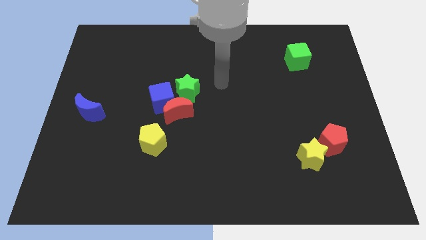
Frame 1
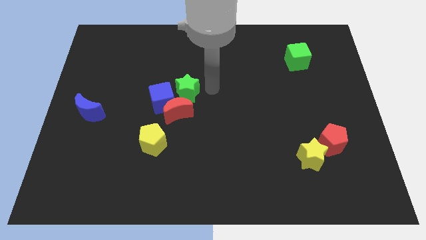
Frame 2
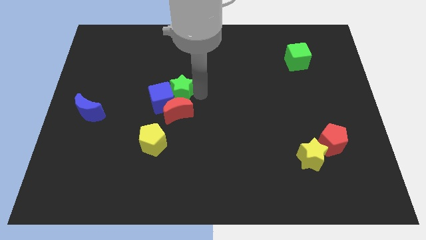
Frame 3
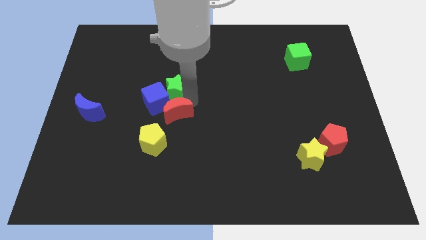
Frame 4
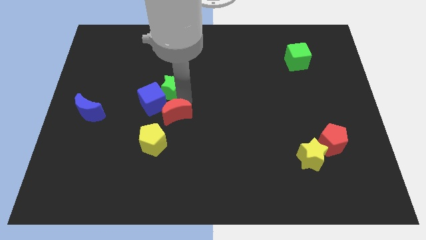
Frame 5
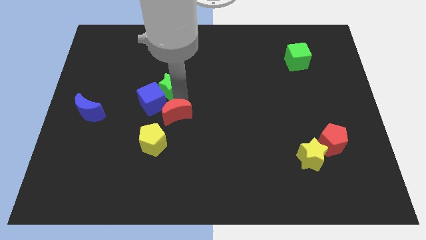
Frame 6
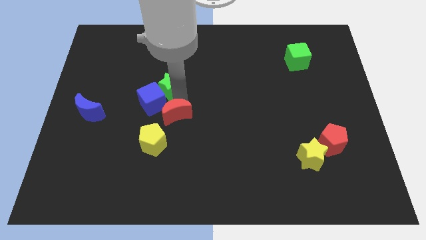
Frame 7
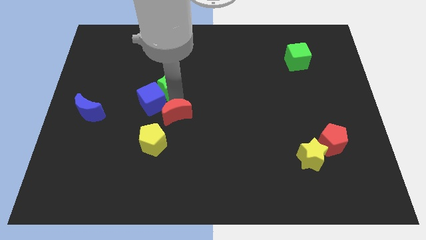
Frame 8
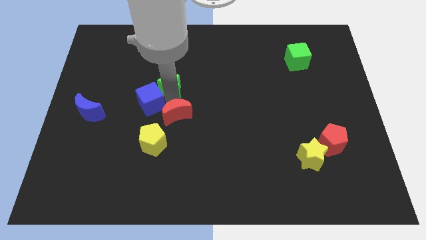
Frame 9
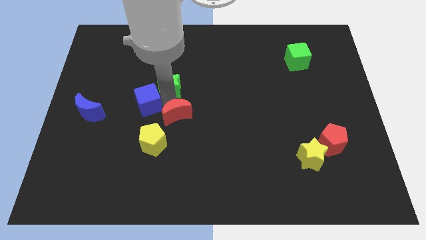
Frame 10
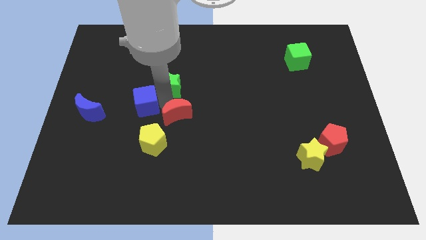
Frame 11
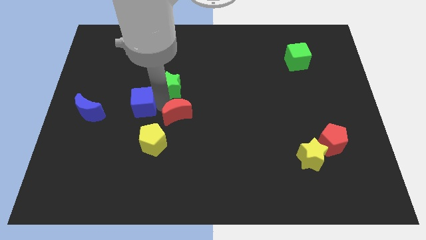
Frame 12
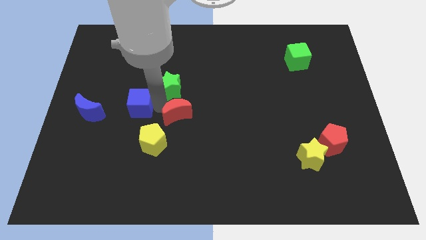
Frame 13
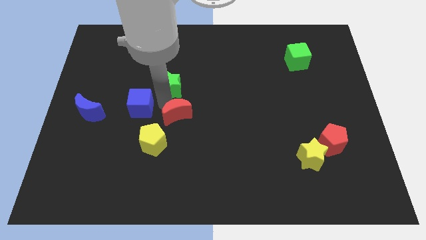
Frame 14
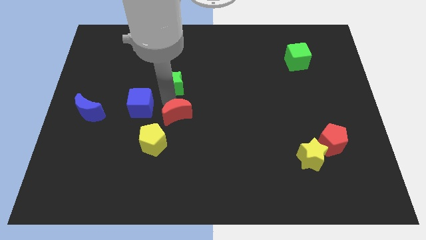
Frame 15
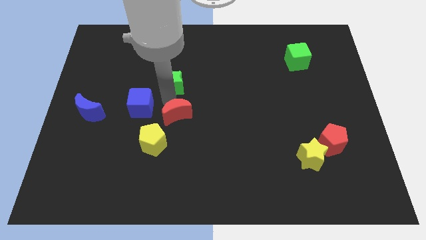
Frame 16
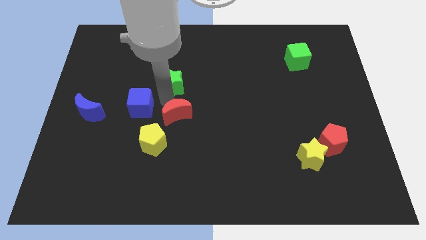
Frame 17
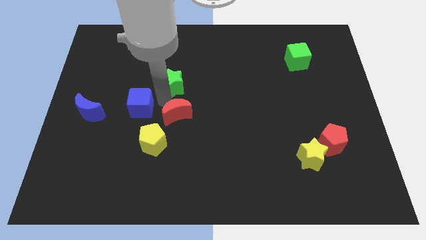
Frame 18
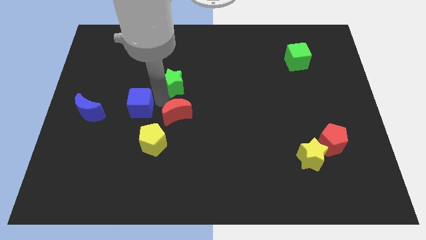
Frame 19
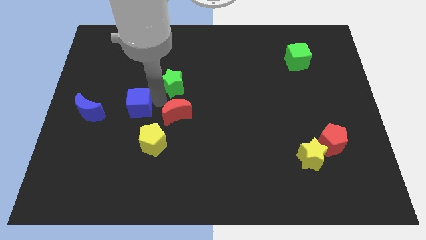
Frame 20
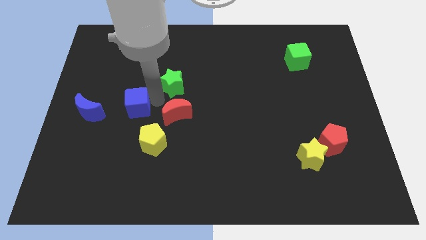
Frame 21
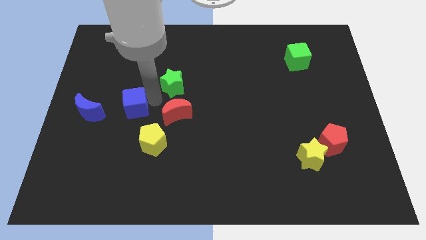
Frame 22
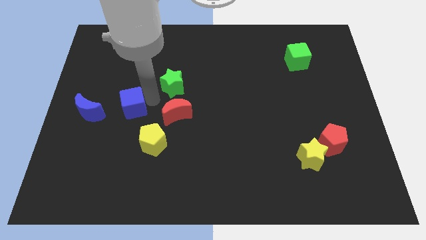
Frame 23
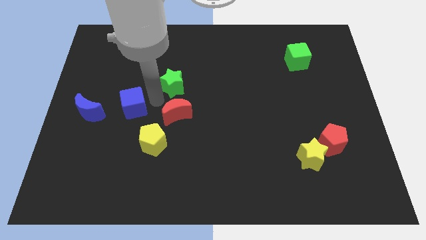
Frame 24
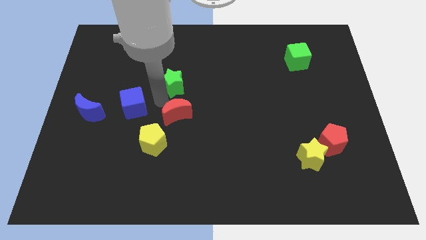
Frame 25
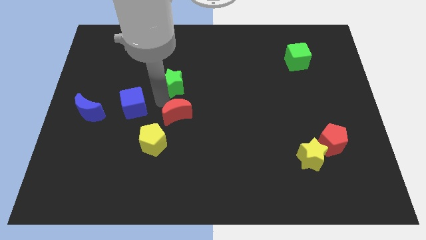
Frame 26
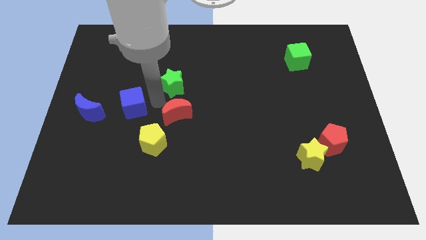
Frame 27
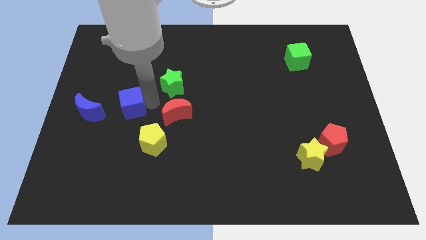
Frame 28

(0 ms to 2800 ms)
pull the blue cube apart from the red moon and green star

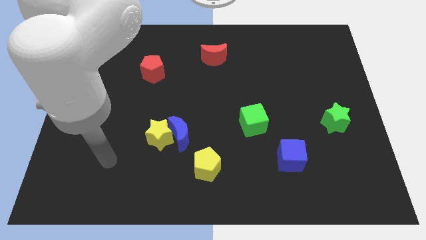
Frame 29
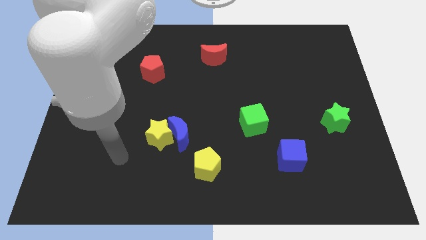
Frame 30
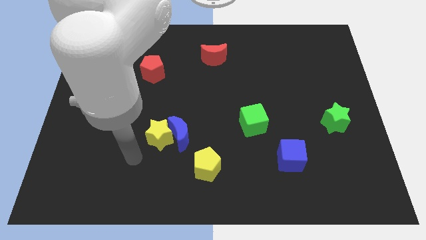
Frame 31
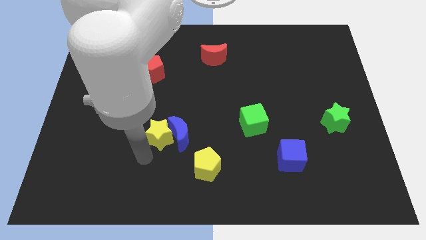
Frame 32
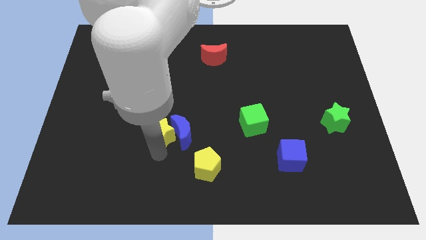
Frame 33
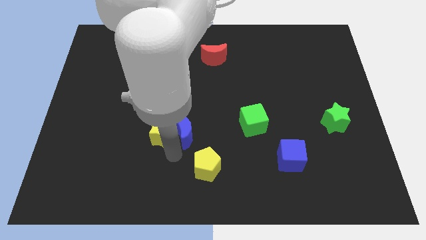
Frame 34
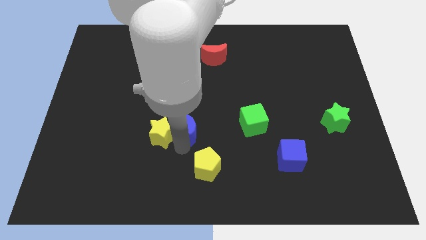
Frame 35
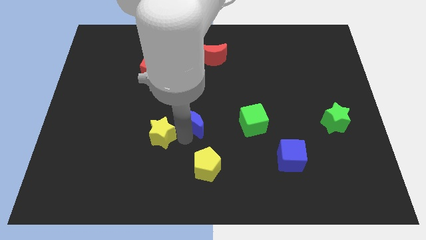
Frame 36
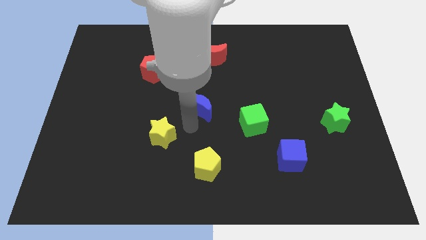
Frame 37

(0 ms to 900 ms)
move the yellow star away from the blue moon

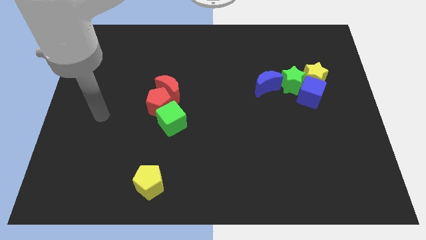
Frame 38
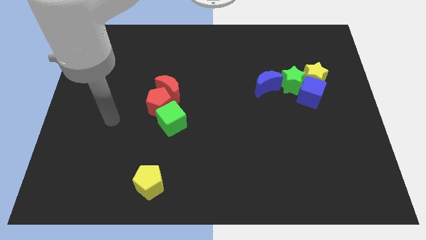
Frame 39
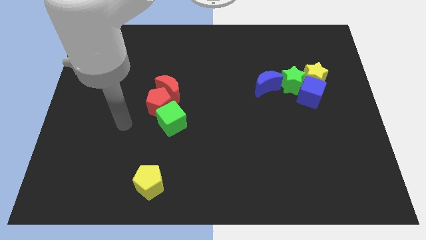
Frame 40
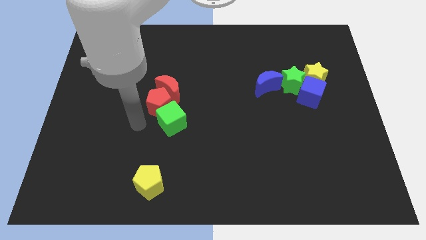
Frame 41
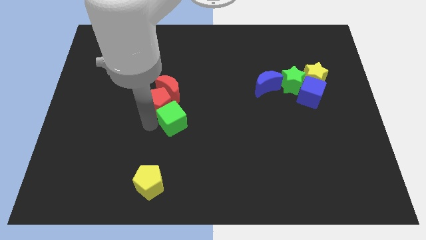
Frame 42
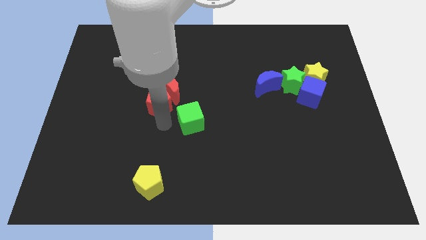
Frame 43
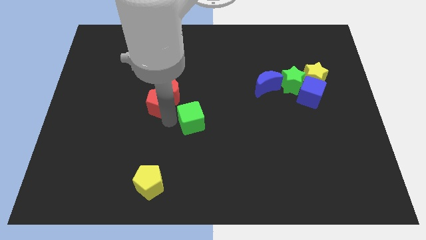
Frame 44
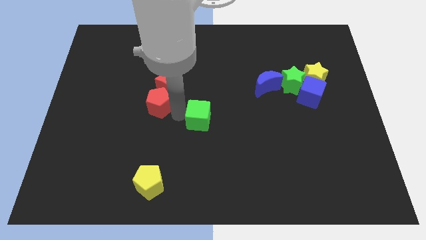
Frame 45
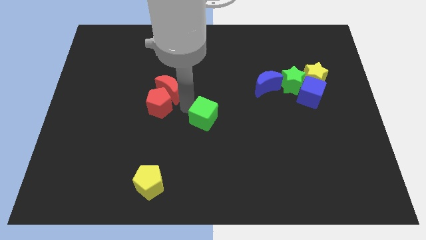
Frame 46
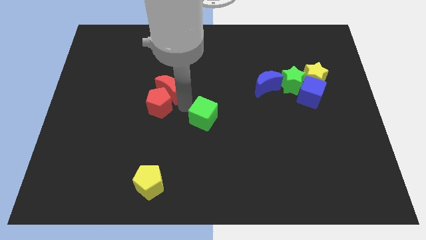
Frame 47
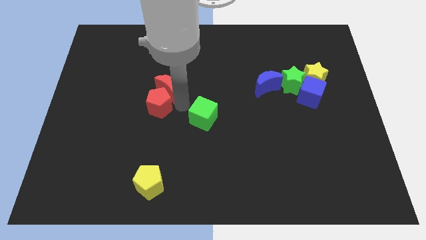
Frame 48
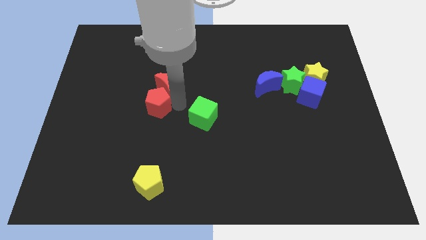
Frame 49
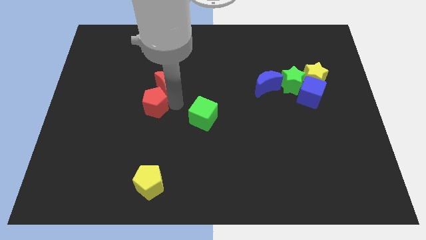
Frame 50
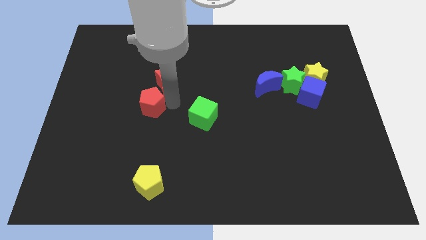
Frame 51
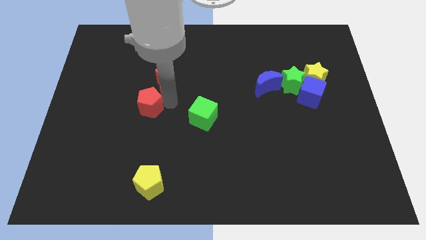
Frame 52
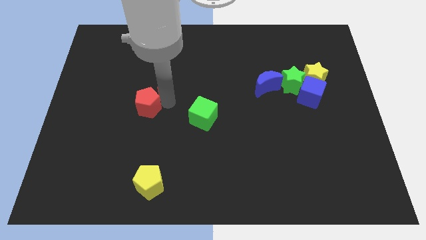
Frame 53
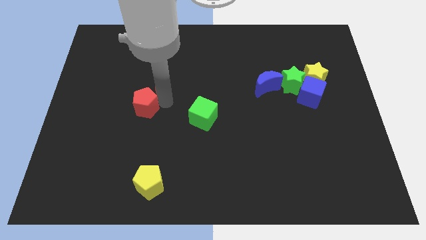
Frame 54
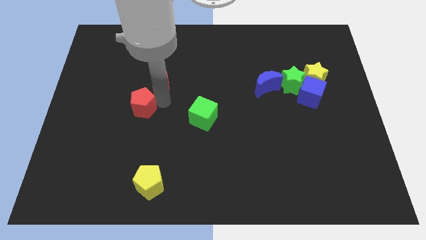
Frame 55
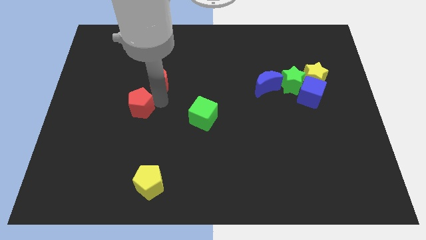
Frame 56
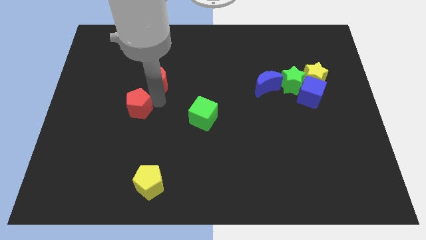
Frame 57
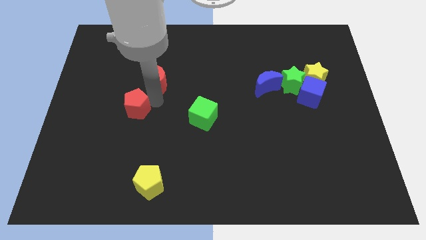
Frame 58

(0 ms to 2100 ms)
pull the red pentagon apart from the red moon and green cube

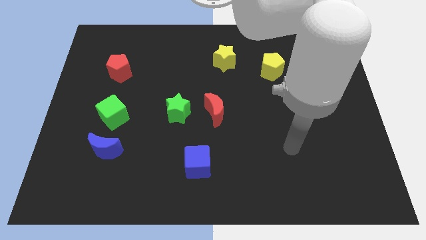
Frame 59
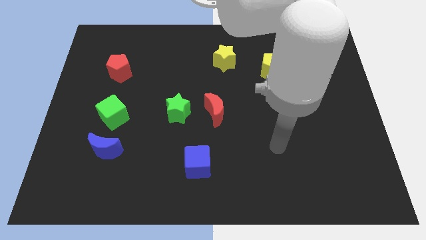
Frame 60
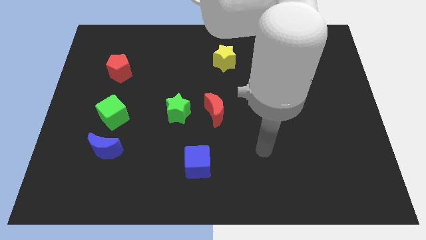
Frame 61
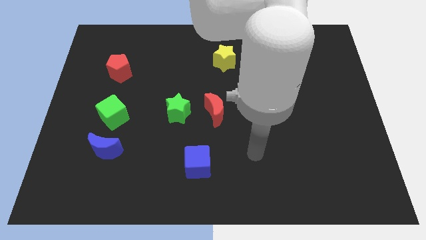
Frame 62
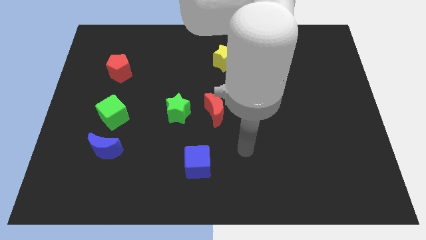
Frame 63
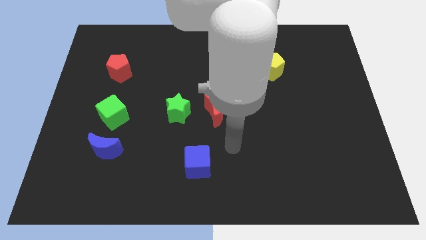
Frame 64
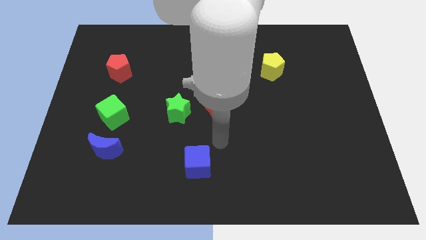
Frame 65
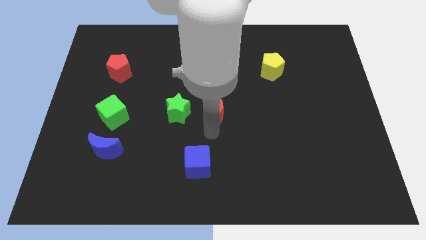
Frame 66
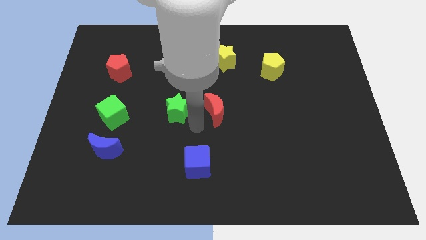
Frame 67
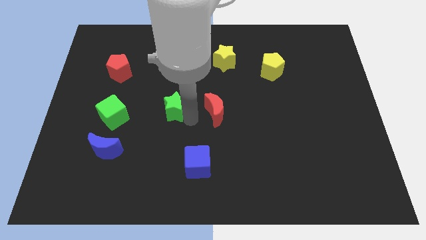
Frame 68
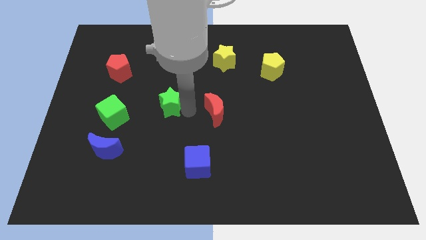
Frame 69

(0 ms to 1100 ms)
move the red moon away from the green star

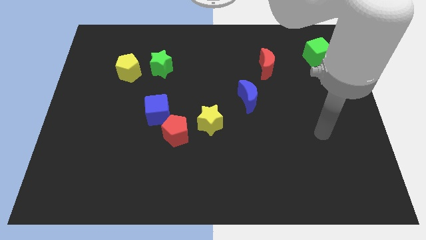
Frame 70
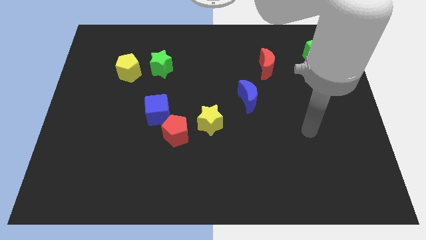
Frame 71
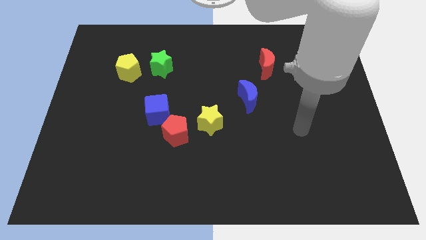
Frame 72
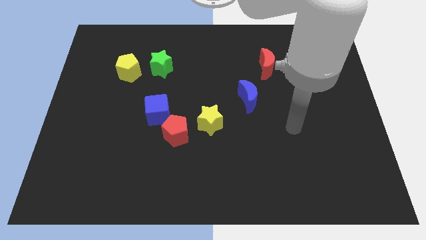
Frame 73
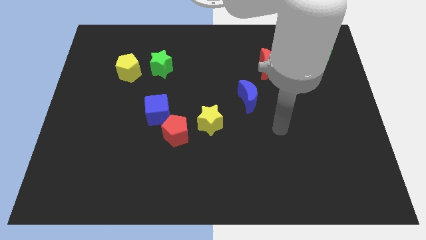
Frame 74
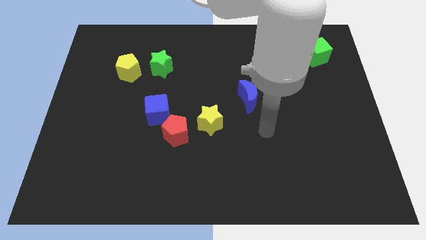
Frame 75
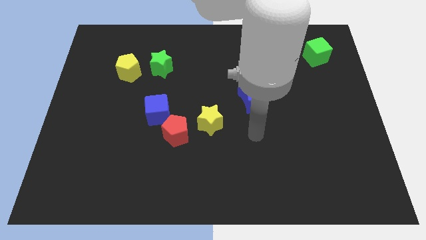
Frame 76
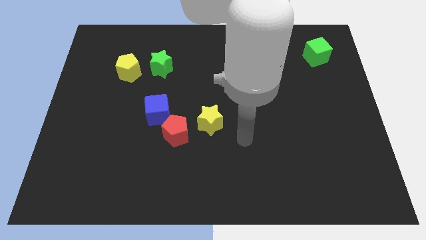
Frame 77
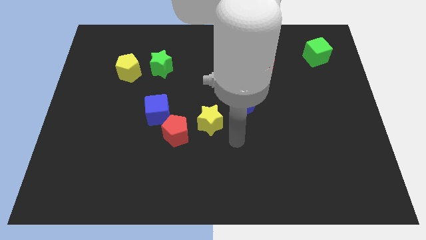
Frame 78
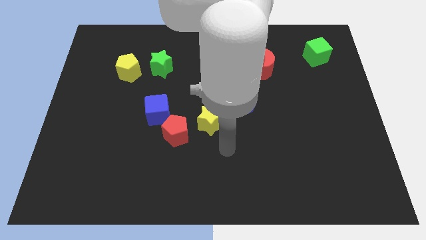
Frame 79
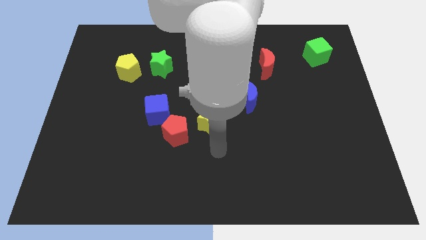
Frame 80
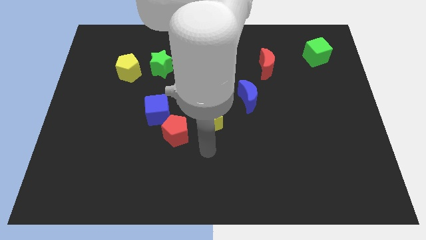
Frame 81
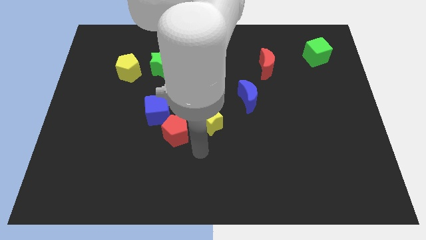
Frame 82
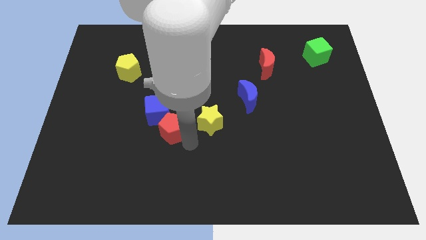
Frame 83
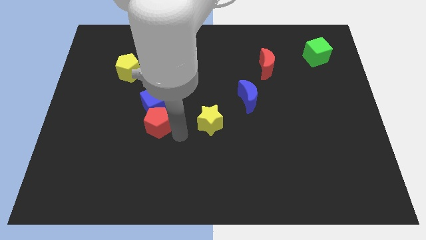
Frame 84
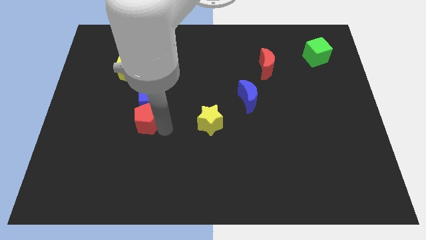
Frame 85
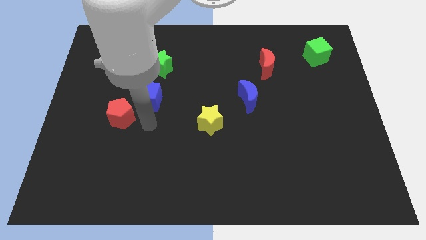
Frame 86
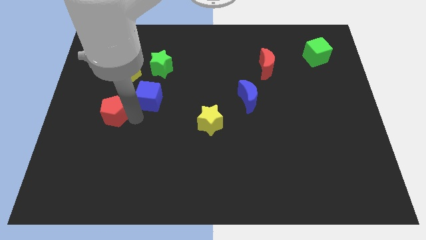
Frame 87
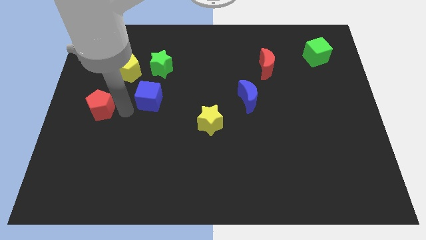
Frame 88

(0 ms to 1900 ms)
separate the blue cube from the red pentagon

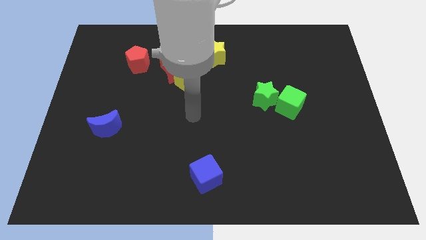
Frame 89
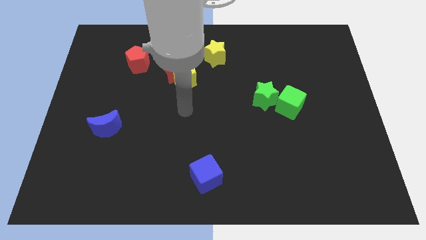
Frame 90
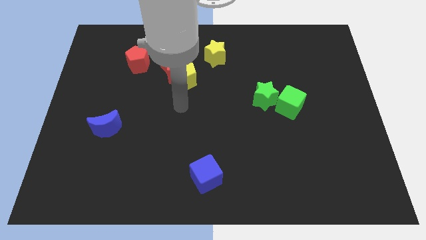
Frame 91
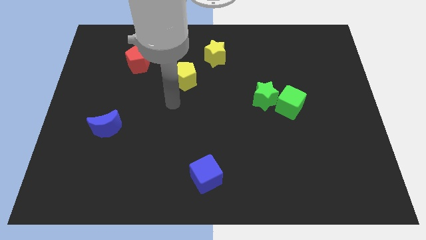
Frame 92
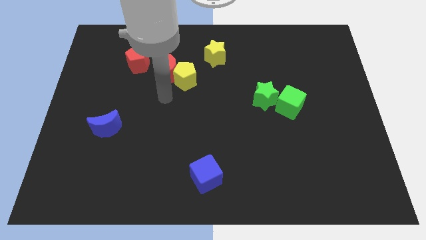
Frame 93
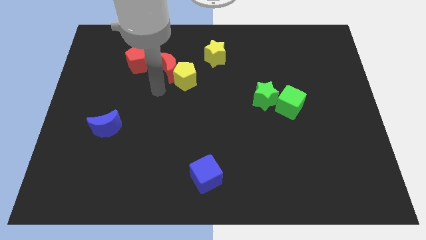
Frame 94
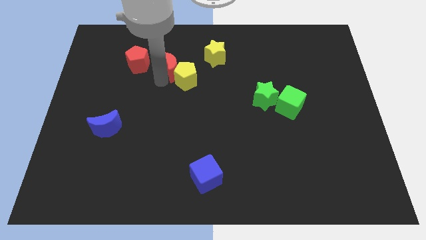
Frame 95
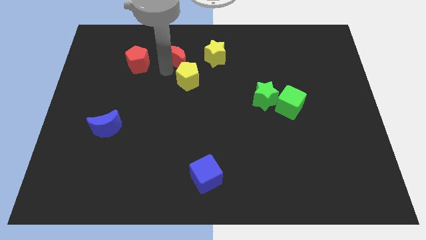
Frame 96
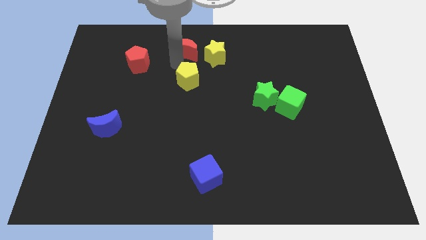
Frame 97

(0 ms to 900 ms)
move the yellow pentagon away from the red moon
